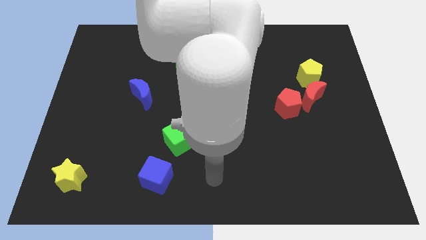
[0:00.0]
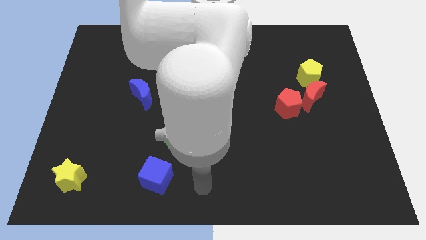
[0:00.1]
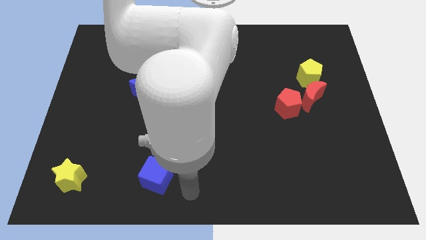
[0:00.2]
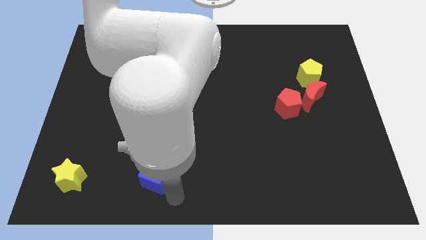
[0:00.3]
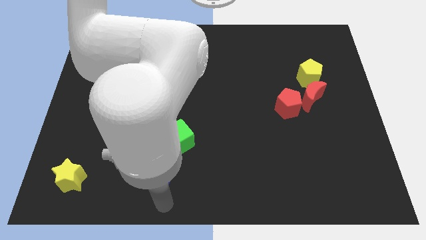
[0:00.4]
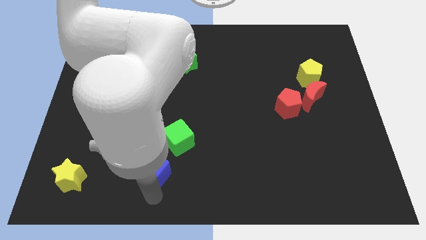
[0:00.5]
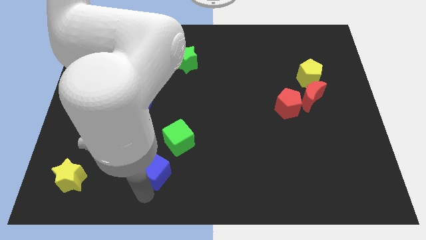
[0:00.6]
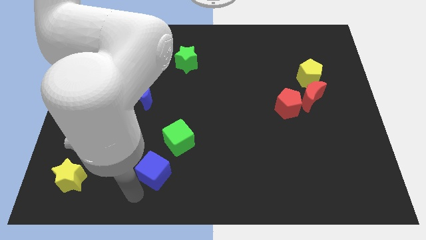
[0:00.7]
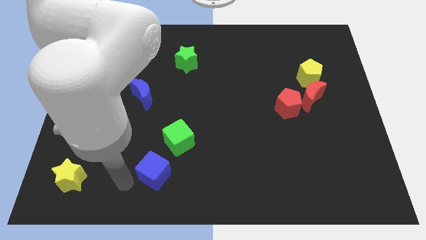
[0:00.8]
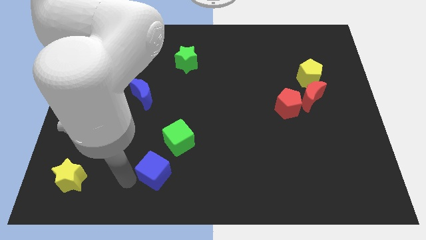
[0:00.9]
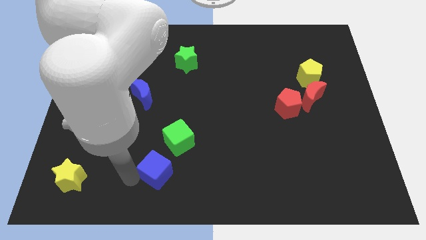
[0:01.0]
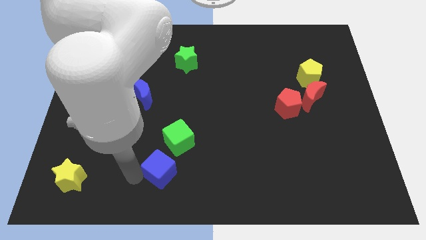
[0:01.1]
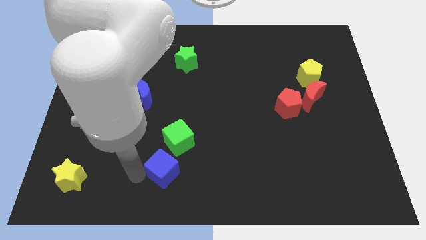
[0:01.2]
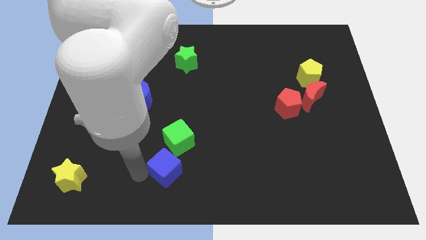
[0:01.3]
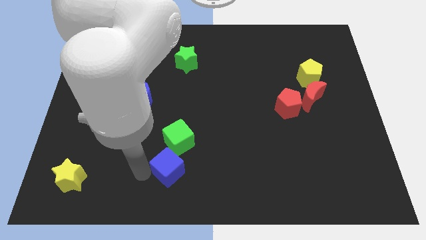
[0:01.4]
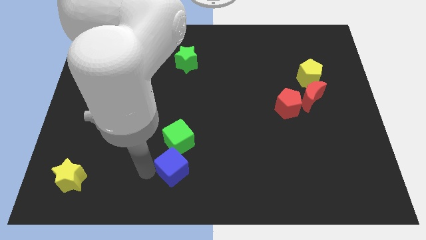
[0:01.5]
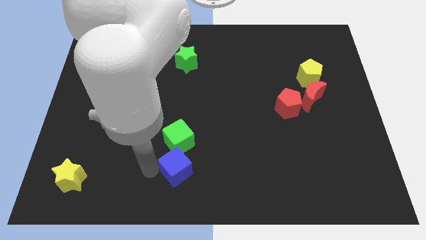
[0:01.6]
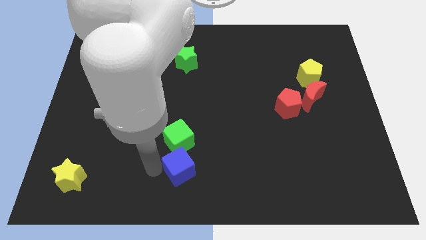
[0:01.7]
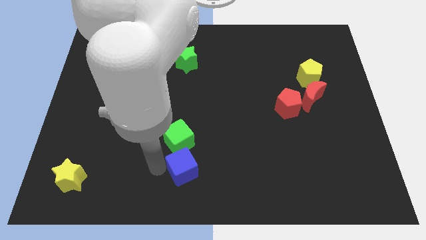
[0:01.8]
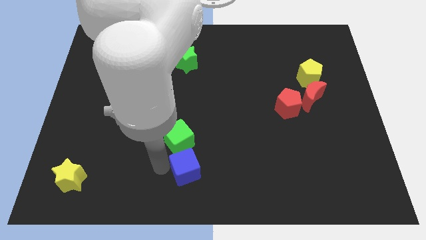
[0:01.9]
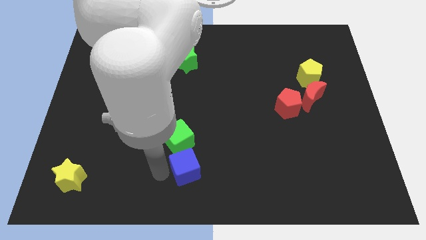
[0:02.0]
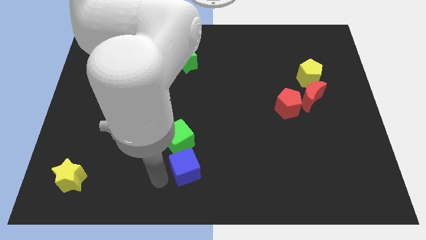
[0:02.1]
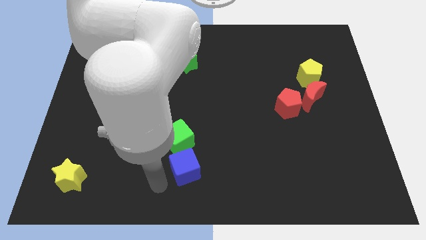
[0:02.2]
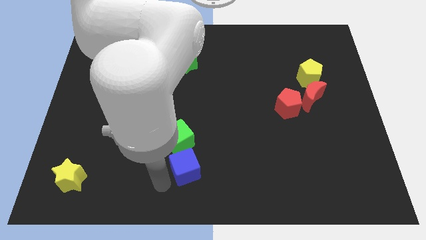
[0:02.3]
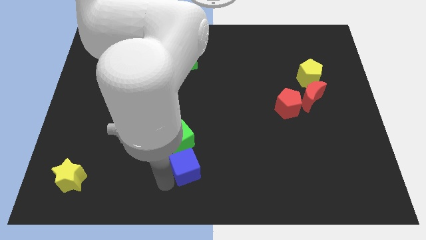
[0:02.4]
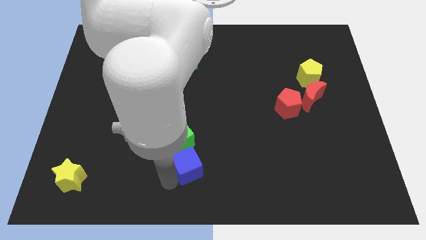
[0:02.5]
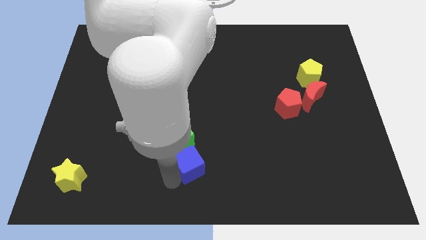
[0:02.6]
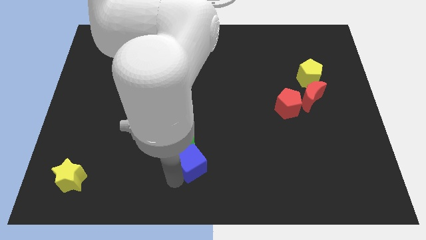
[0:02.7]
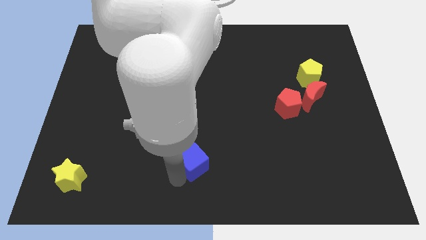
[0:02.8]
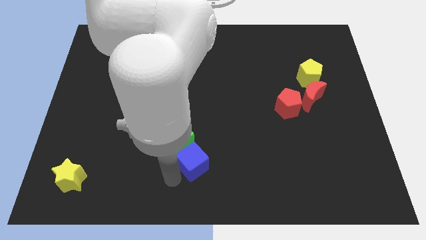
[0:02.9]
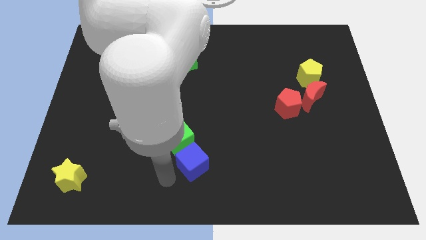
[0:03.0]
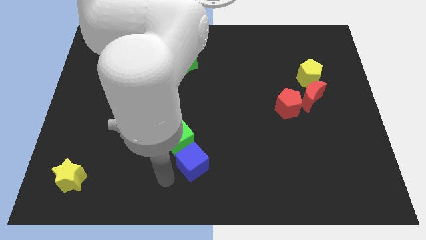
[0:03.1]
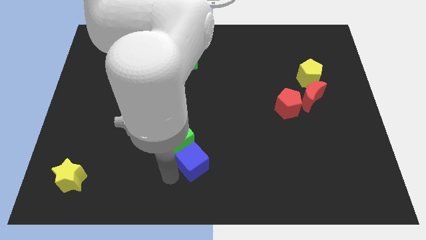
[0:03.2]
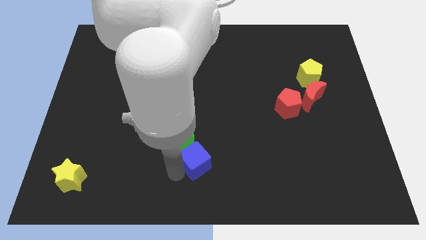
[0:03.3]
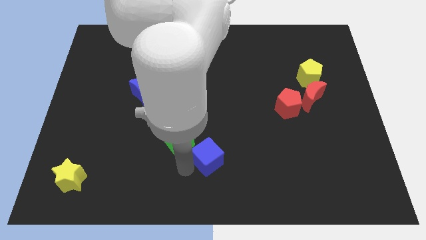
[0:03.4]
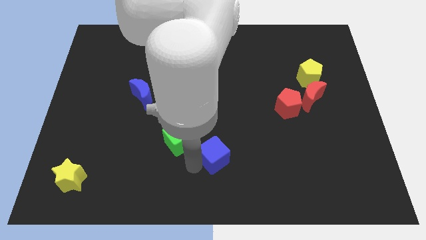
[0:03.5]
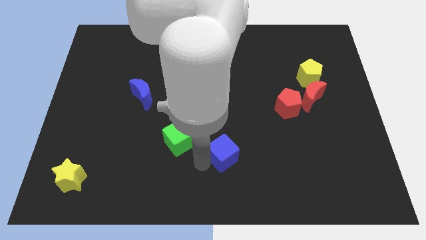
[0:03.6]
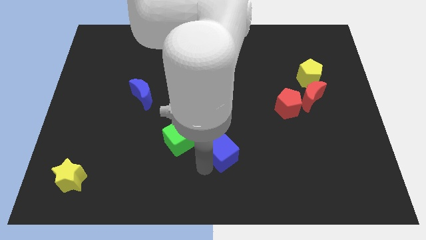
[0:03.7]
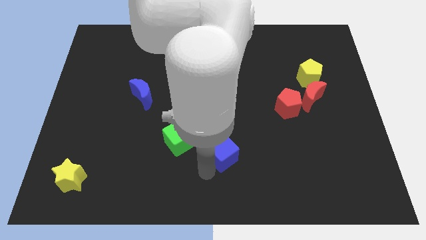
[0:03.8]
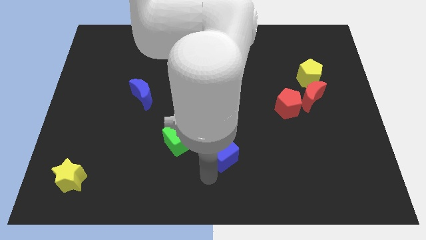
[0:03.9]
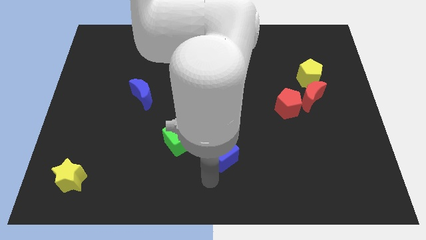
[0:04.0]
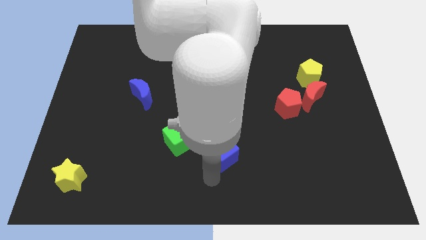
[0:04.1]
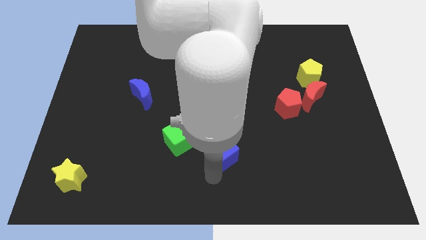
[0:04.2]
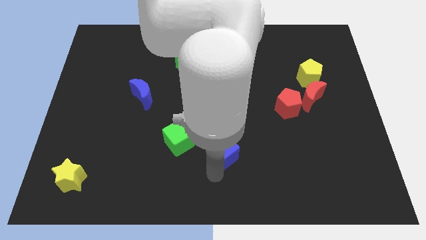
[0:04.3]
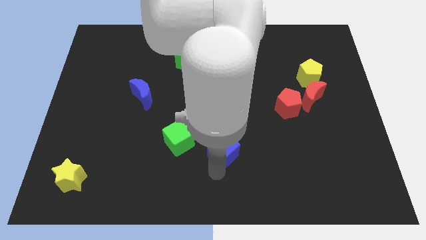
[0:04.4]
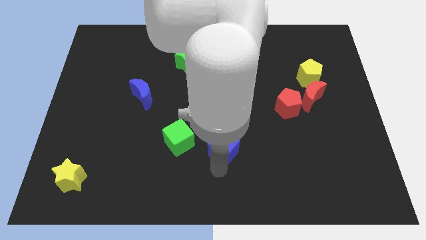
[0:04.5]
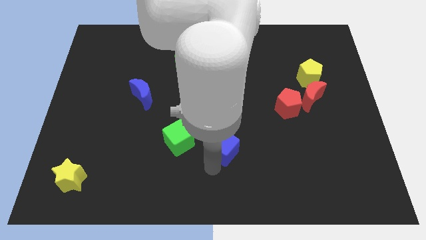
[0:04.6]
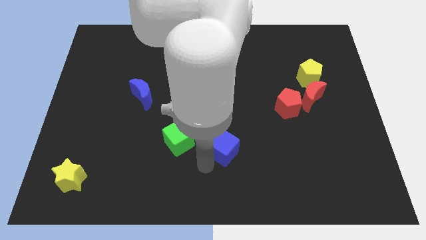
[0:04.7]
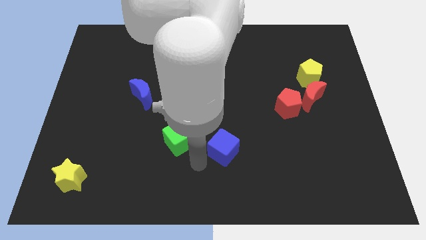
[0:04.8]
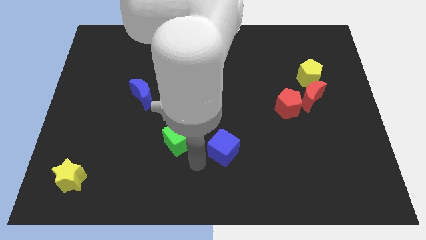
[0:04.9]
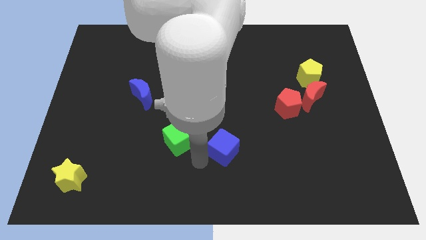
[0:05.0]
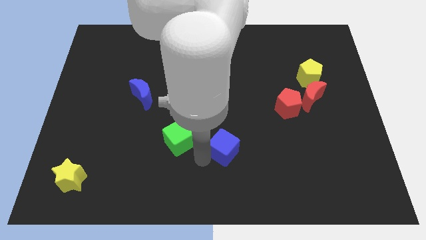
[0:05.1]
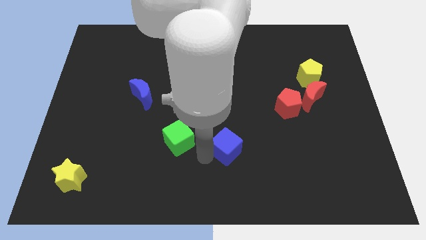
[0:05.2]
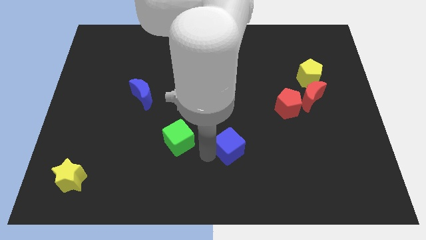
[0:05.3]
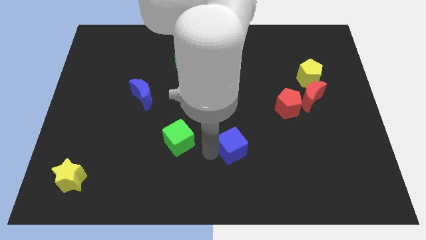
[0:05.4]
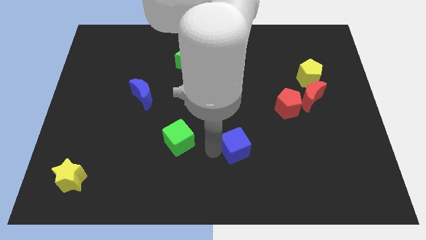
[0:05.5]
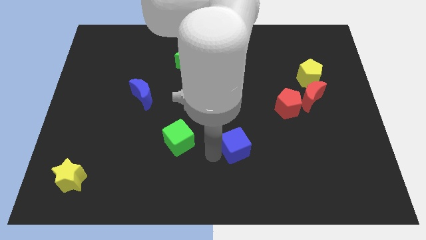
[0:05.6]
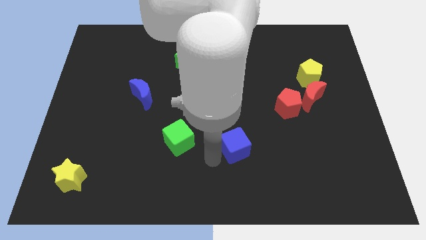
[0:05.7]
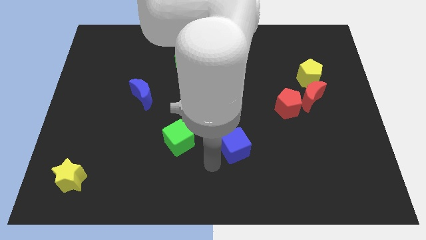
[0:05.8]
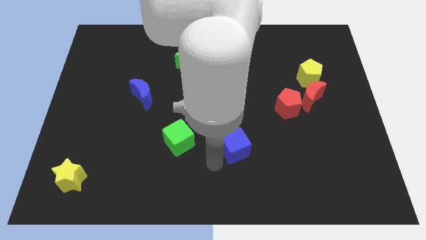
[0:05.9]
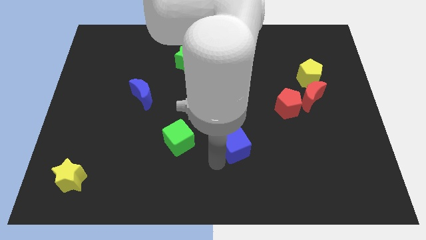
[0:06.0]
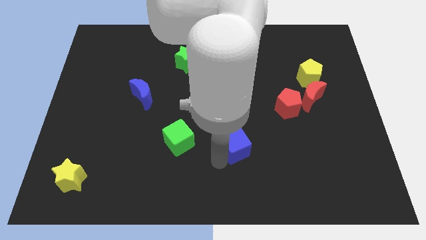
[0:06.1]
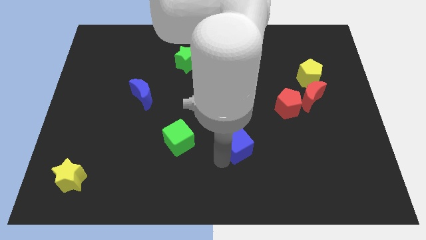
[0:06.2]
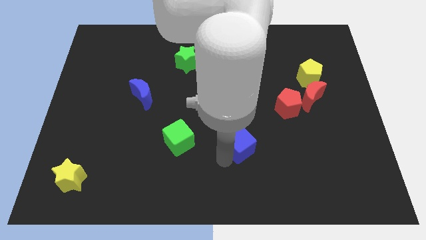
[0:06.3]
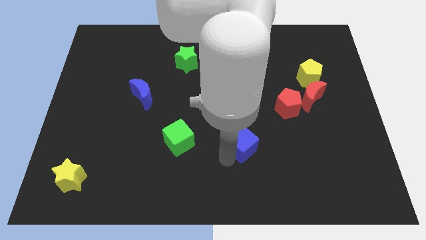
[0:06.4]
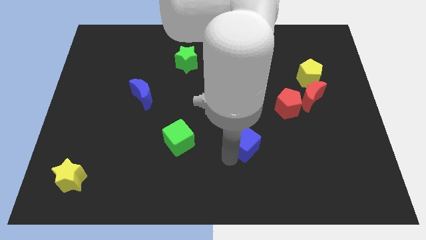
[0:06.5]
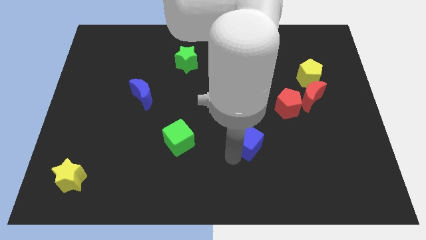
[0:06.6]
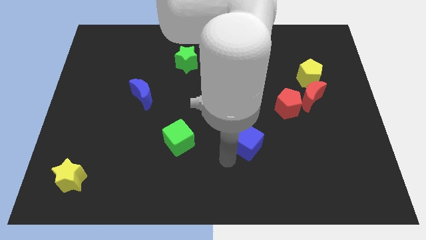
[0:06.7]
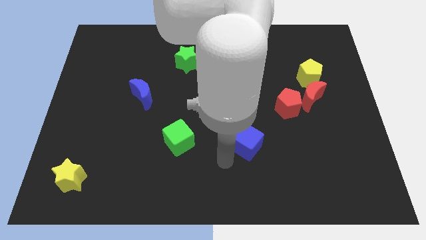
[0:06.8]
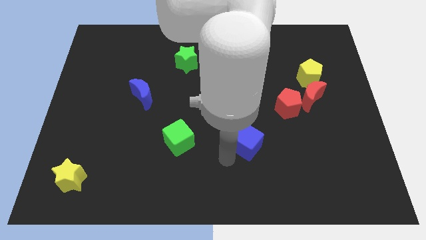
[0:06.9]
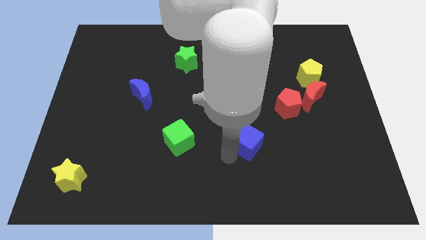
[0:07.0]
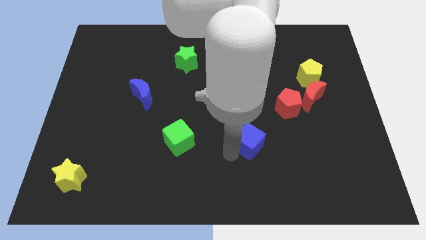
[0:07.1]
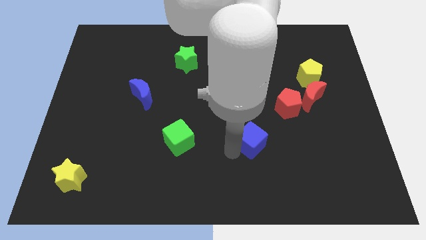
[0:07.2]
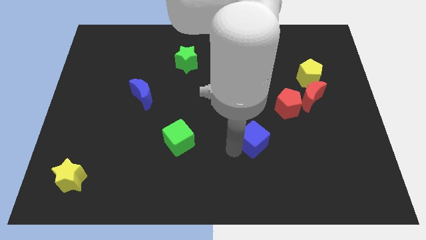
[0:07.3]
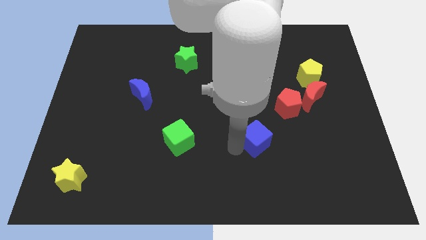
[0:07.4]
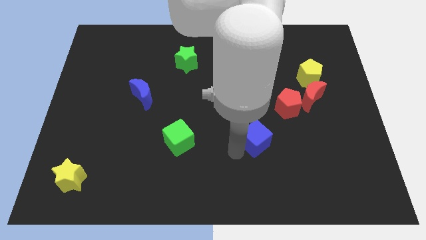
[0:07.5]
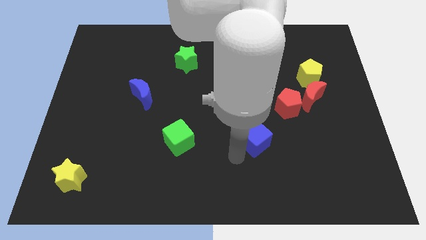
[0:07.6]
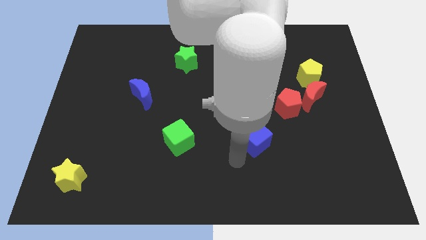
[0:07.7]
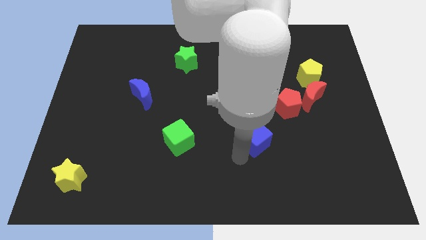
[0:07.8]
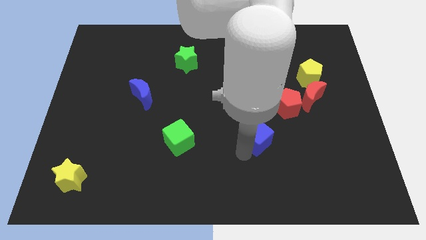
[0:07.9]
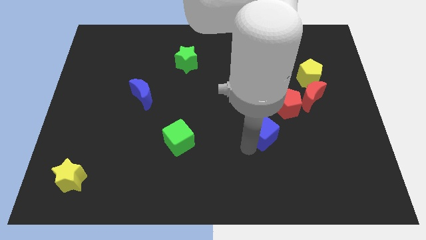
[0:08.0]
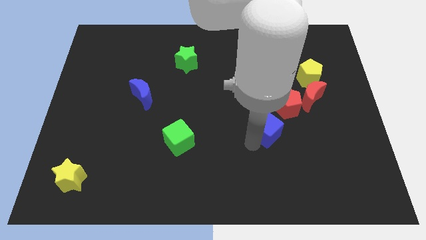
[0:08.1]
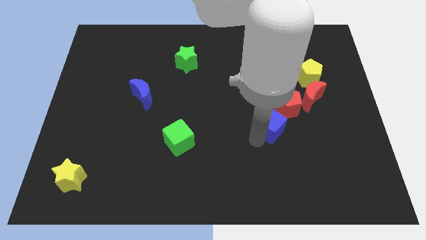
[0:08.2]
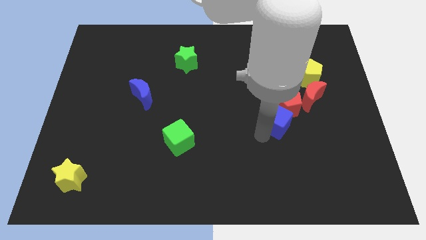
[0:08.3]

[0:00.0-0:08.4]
put the blue cube next to the red pentagon
